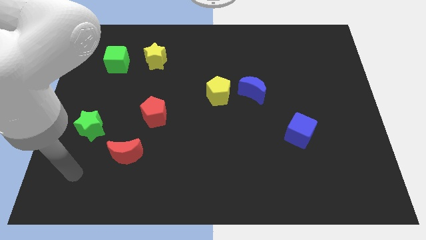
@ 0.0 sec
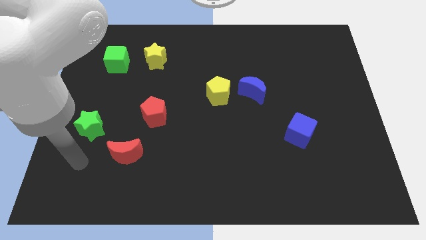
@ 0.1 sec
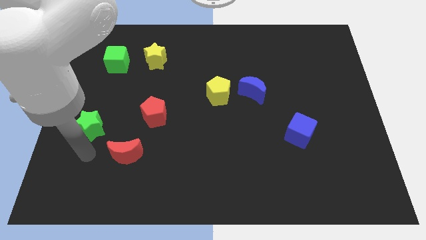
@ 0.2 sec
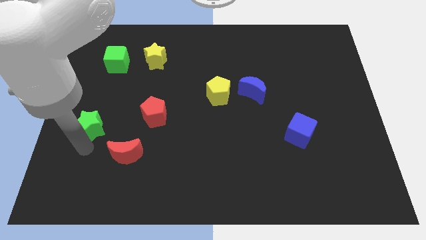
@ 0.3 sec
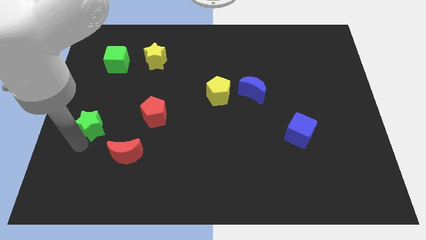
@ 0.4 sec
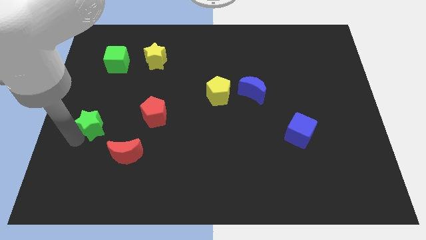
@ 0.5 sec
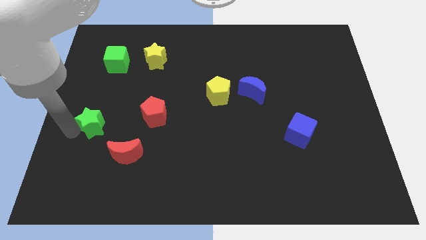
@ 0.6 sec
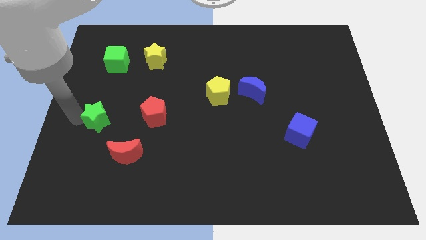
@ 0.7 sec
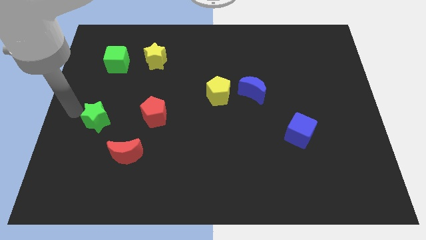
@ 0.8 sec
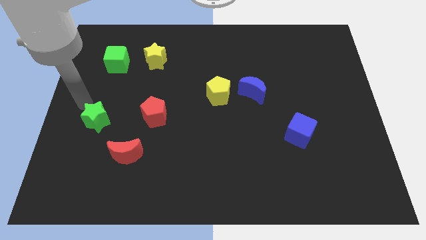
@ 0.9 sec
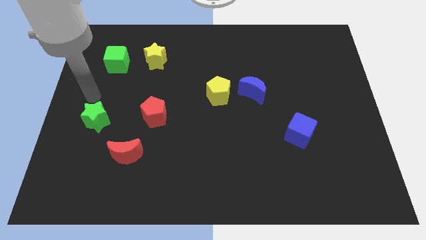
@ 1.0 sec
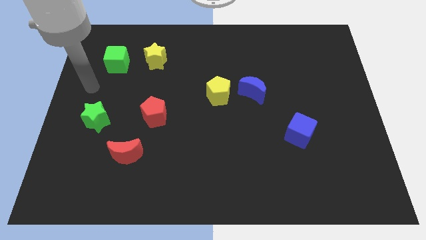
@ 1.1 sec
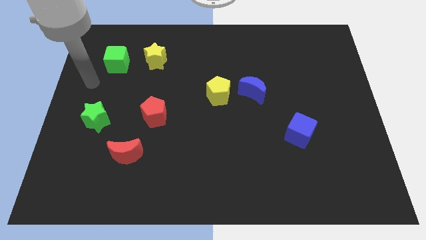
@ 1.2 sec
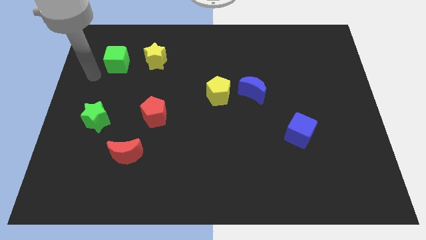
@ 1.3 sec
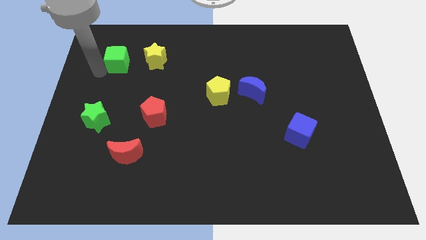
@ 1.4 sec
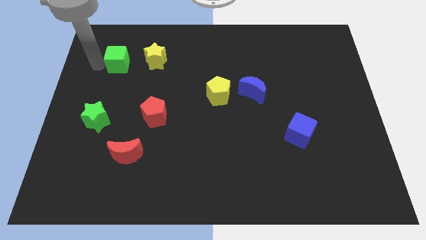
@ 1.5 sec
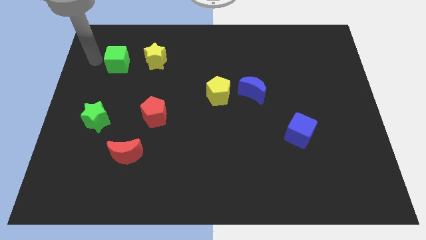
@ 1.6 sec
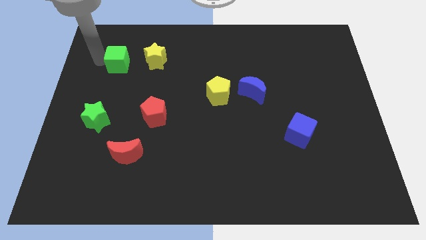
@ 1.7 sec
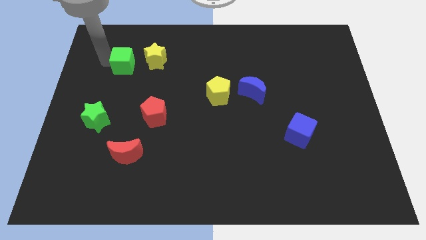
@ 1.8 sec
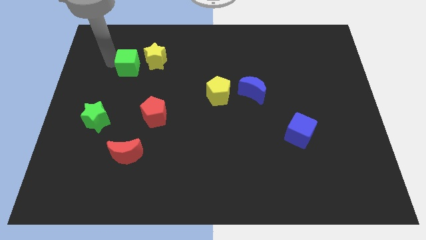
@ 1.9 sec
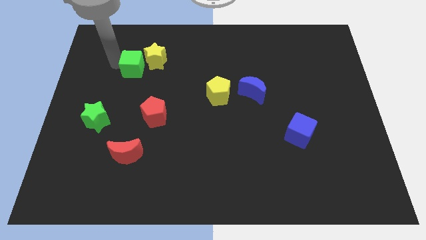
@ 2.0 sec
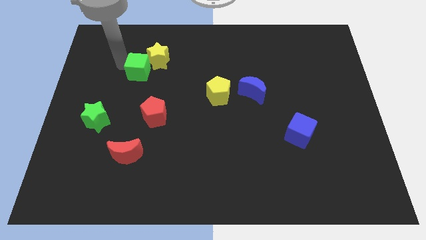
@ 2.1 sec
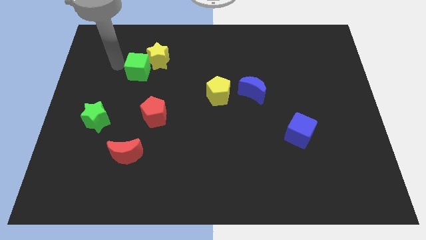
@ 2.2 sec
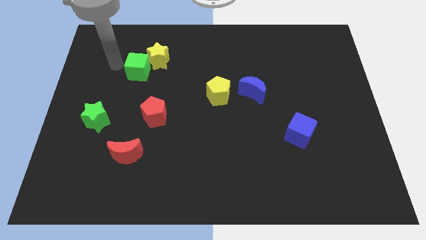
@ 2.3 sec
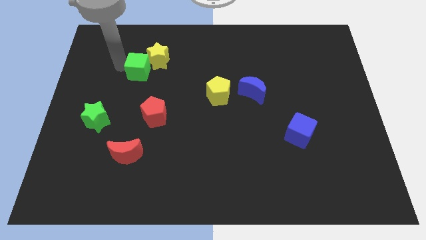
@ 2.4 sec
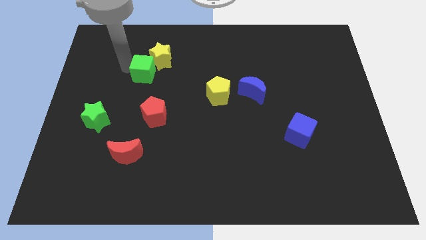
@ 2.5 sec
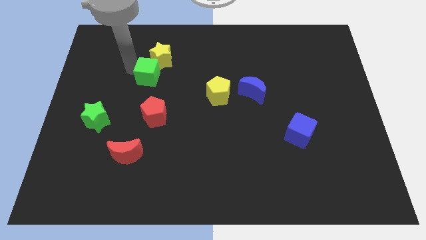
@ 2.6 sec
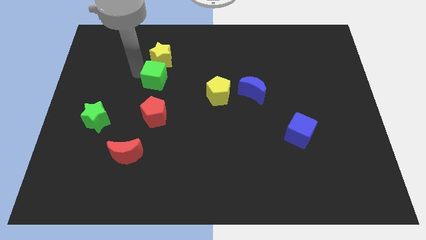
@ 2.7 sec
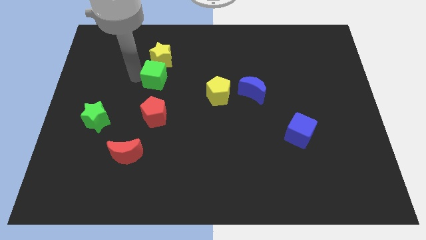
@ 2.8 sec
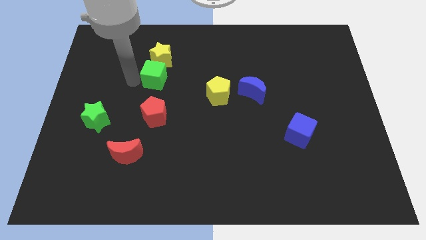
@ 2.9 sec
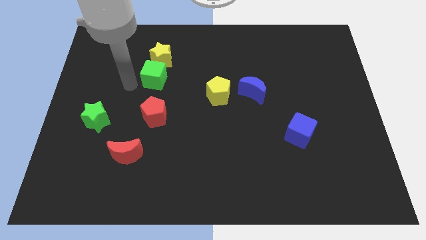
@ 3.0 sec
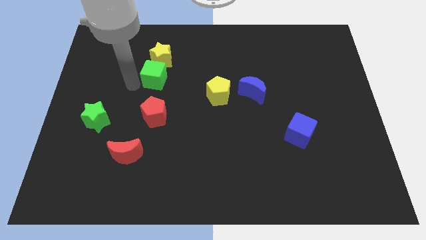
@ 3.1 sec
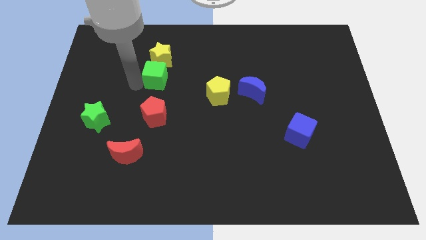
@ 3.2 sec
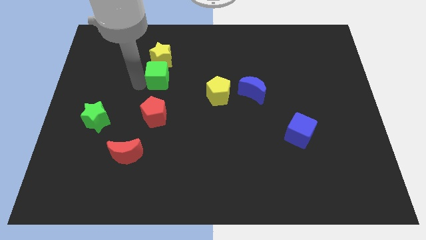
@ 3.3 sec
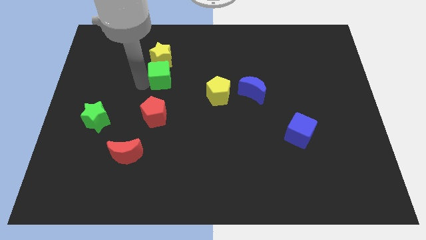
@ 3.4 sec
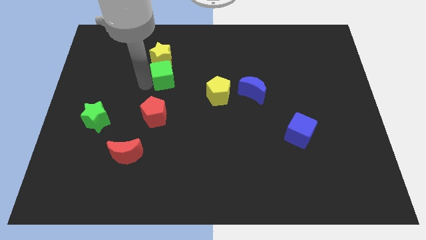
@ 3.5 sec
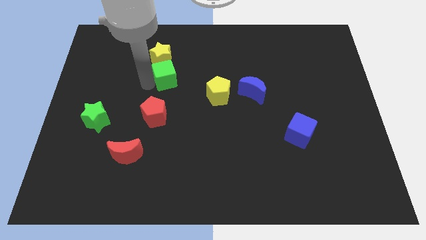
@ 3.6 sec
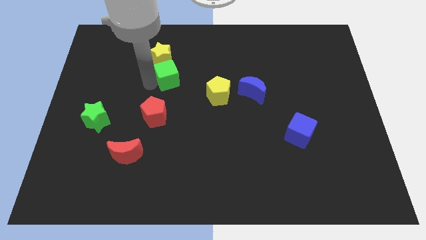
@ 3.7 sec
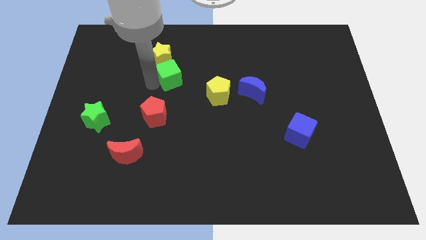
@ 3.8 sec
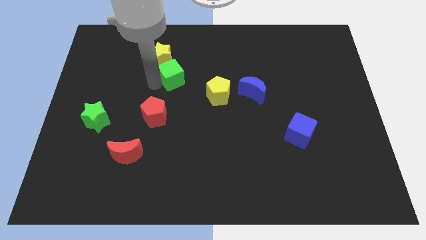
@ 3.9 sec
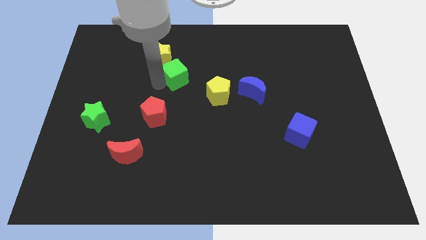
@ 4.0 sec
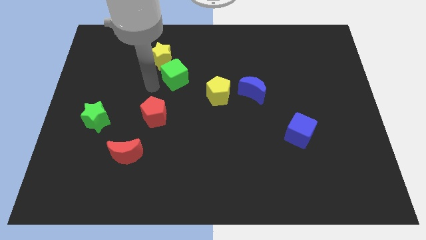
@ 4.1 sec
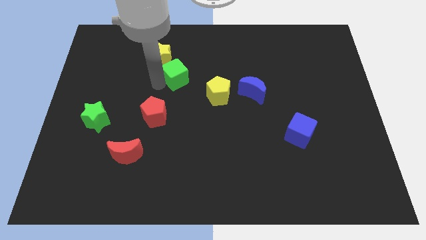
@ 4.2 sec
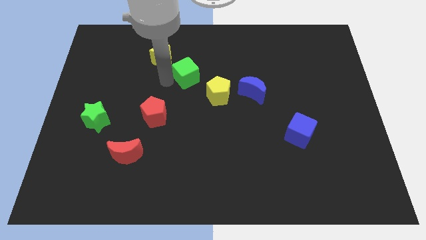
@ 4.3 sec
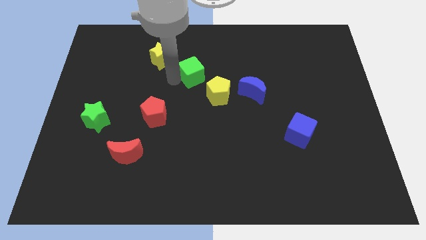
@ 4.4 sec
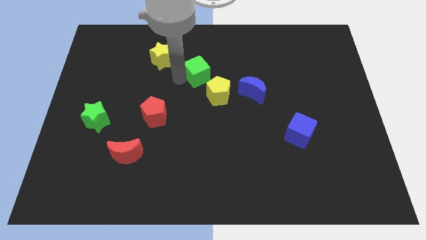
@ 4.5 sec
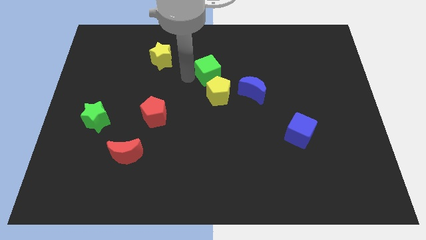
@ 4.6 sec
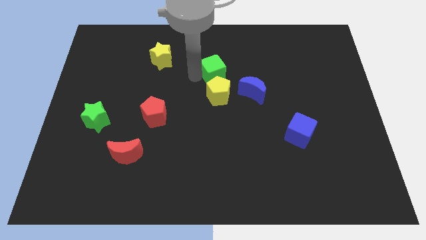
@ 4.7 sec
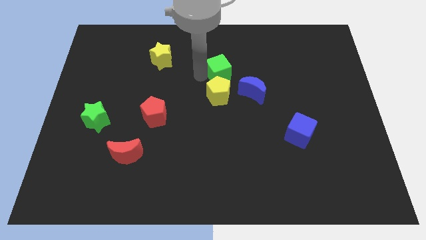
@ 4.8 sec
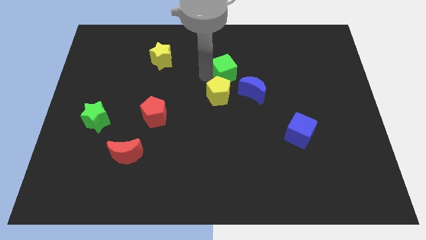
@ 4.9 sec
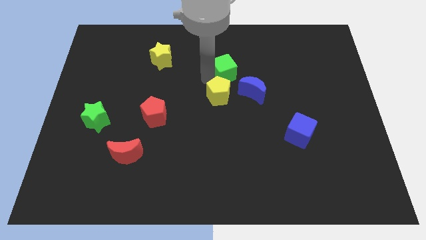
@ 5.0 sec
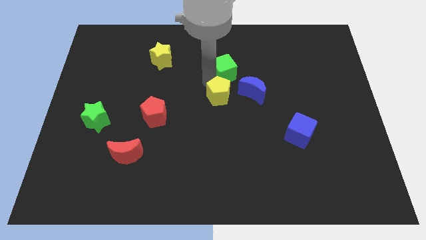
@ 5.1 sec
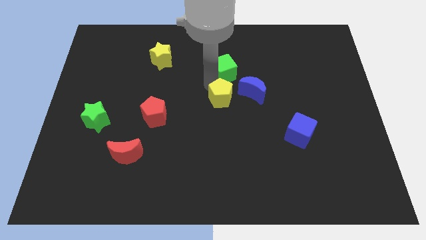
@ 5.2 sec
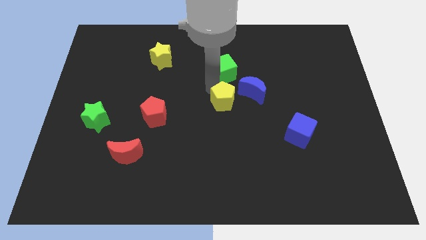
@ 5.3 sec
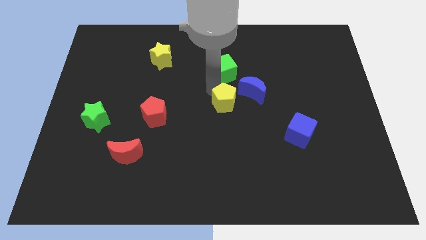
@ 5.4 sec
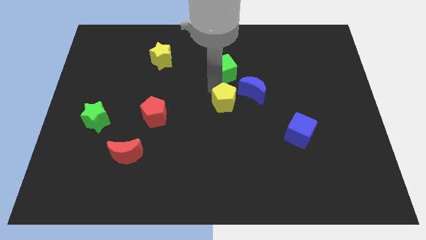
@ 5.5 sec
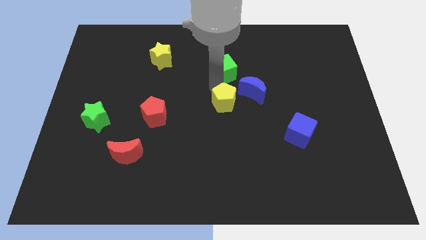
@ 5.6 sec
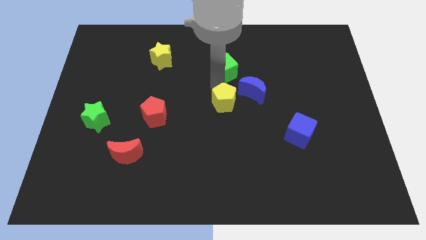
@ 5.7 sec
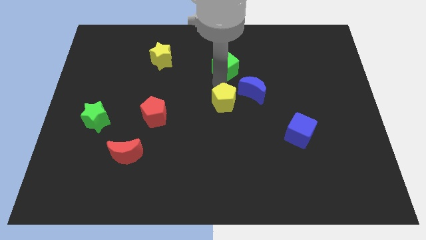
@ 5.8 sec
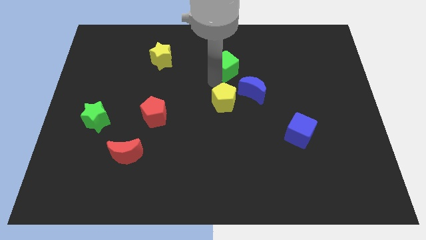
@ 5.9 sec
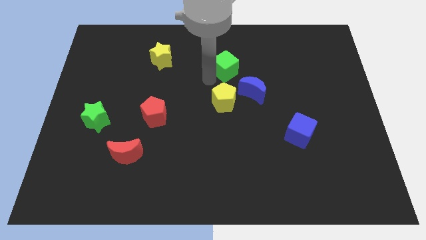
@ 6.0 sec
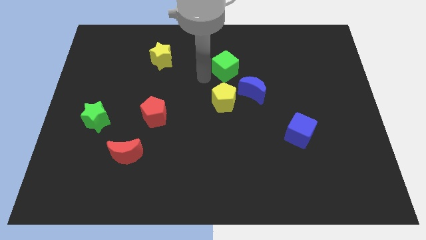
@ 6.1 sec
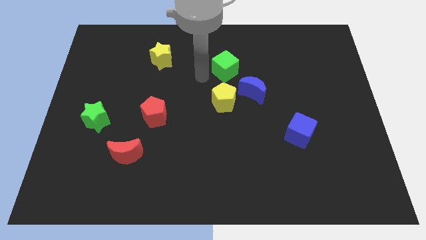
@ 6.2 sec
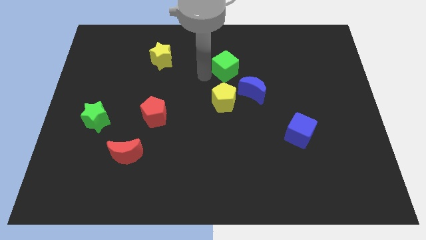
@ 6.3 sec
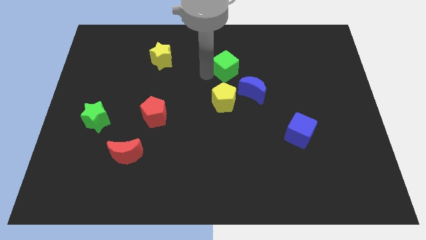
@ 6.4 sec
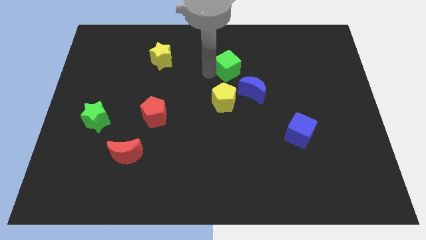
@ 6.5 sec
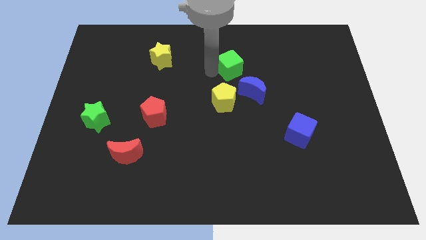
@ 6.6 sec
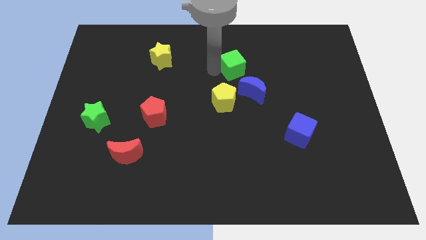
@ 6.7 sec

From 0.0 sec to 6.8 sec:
move the green cube to the top of the blue moon

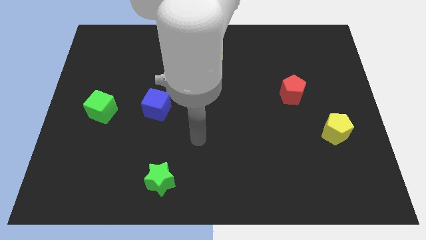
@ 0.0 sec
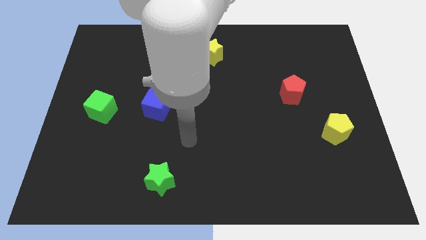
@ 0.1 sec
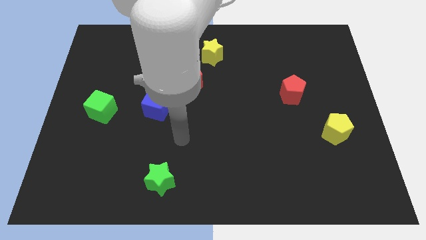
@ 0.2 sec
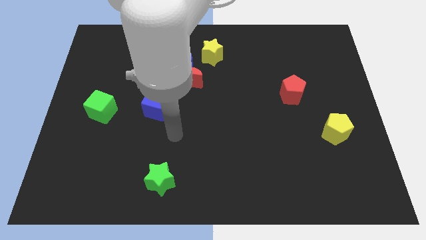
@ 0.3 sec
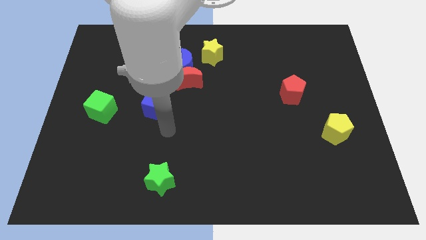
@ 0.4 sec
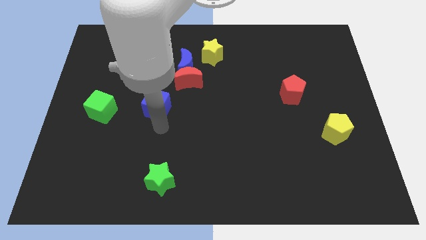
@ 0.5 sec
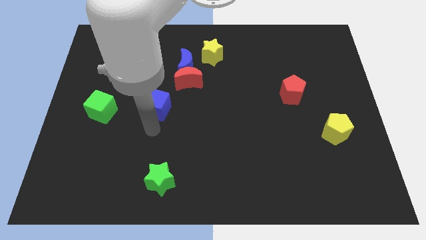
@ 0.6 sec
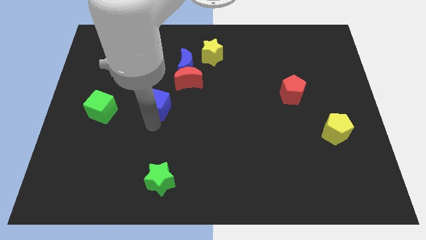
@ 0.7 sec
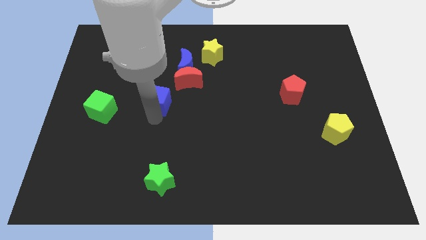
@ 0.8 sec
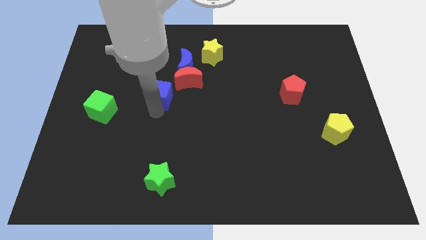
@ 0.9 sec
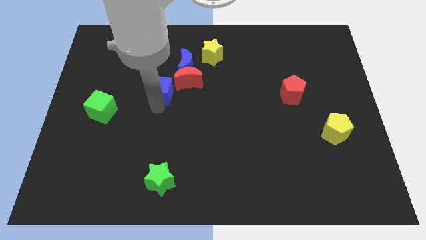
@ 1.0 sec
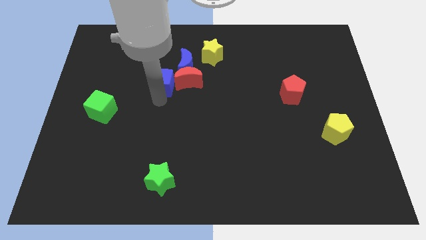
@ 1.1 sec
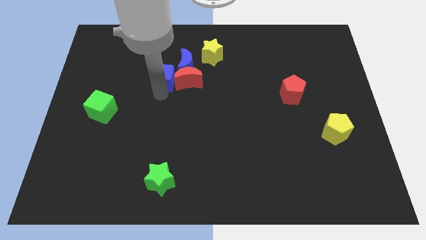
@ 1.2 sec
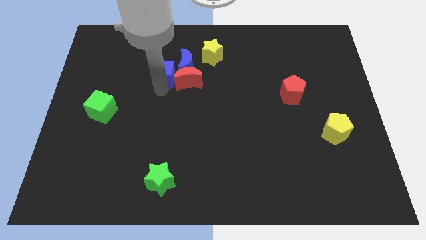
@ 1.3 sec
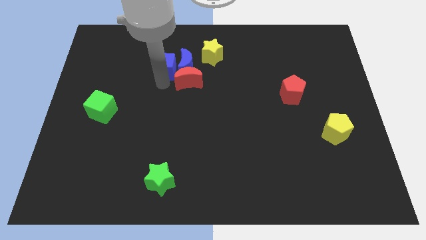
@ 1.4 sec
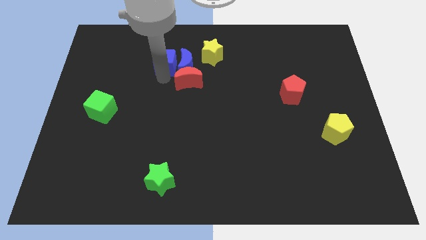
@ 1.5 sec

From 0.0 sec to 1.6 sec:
put the blue cube to the left of the yellow star
